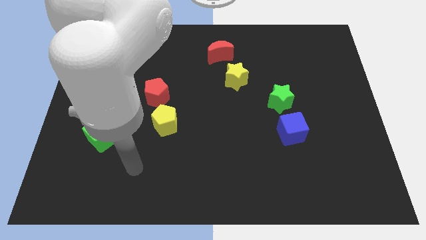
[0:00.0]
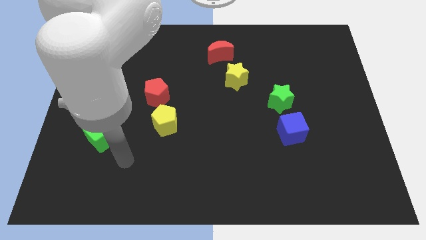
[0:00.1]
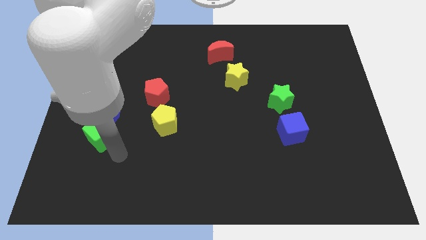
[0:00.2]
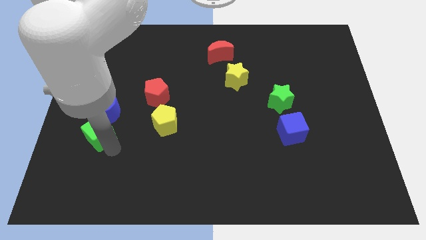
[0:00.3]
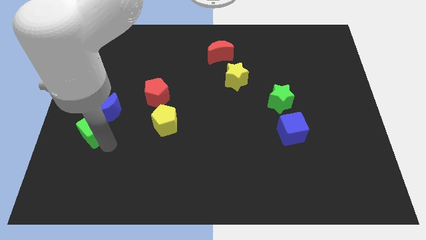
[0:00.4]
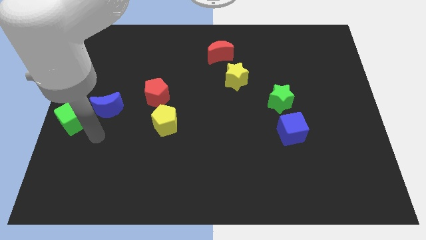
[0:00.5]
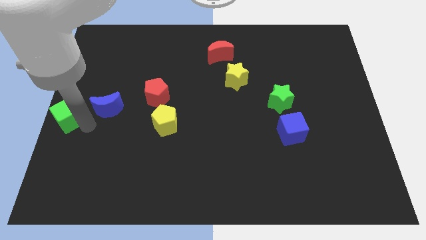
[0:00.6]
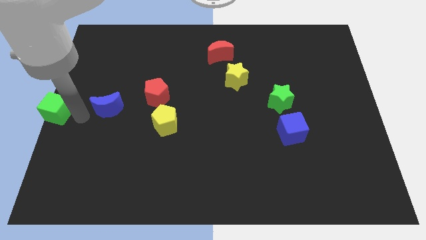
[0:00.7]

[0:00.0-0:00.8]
separate the blue moon from the green cube

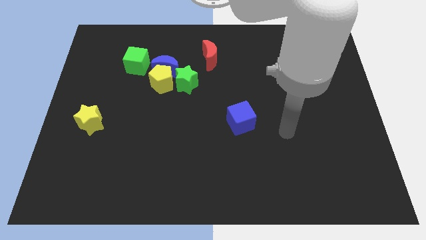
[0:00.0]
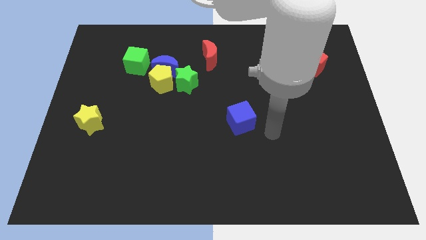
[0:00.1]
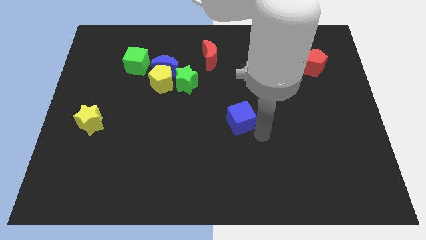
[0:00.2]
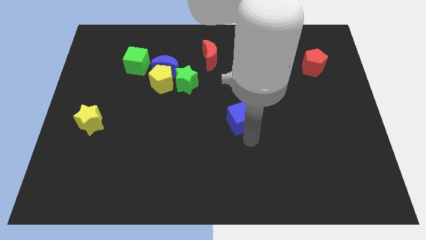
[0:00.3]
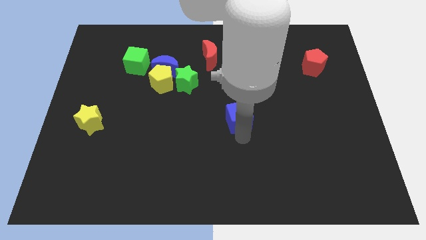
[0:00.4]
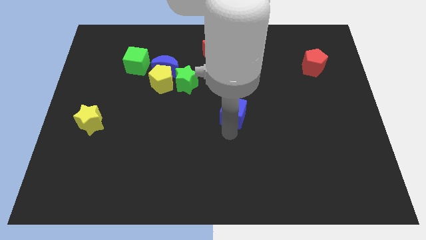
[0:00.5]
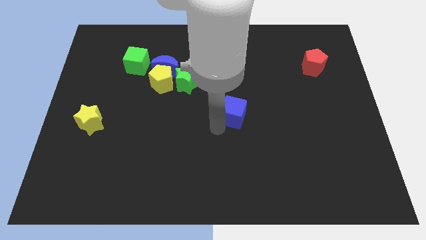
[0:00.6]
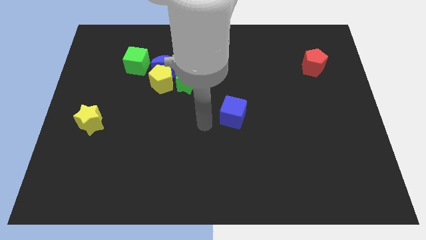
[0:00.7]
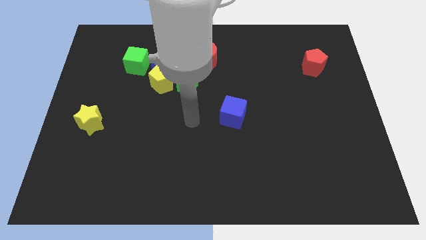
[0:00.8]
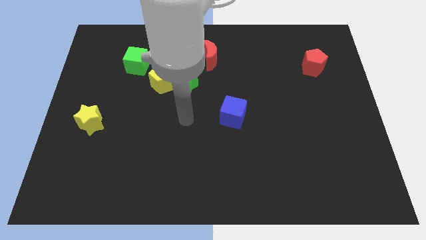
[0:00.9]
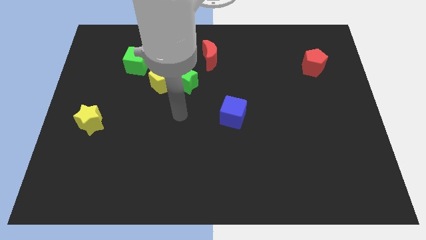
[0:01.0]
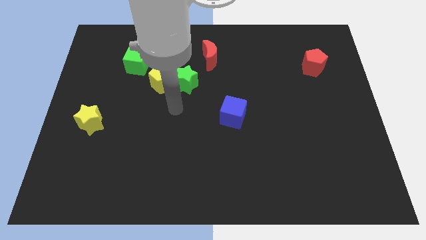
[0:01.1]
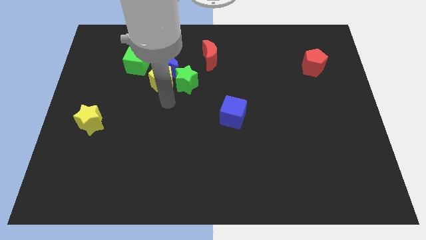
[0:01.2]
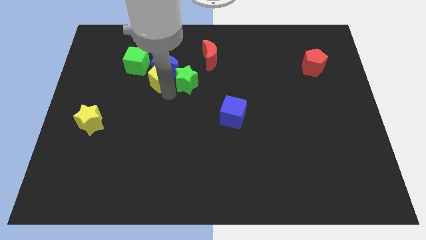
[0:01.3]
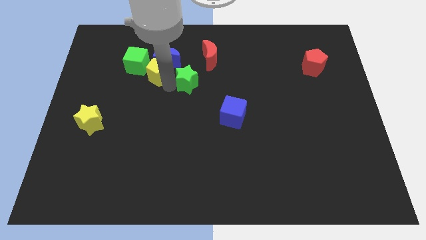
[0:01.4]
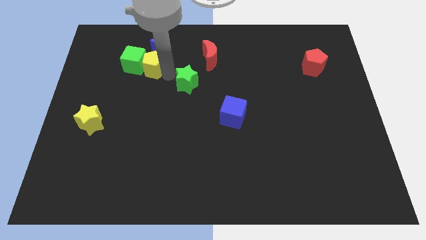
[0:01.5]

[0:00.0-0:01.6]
move the green star away from the yellow pentagon and blue moon

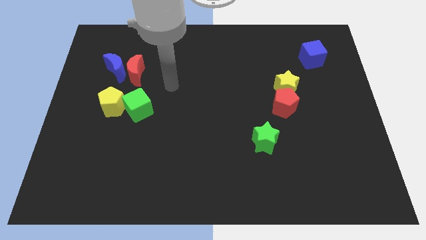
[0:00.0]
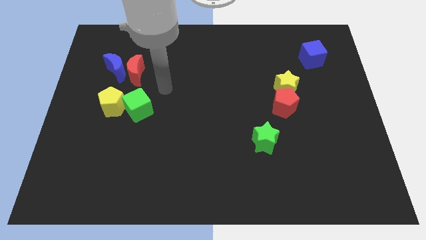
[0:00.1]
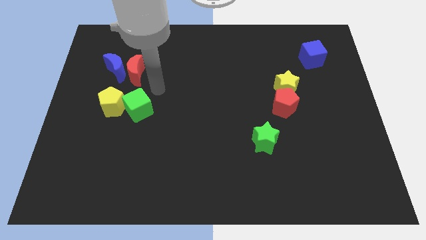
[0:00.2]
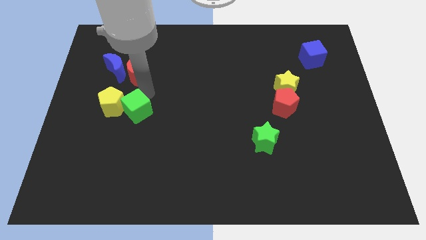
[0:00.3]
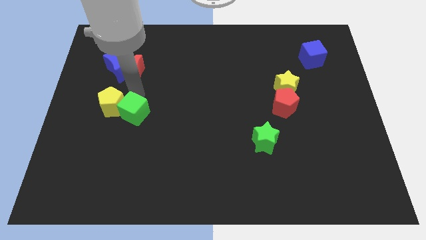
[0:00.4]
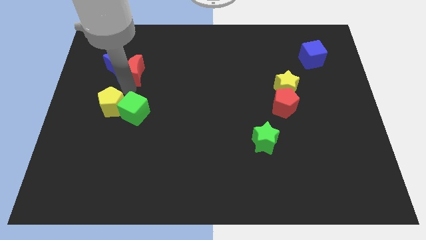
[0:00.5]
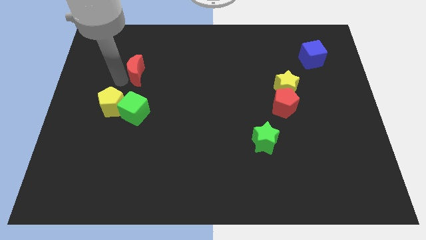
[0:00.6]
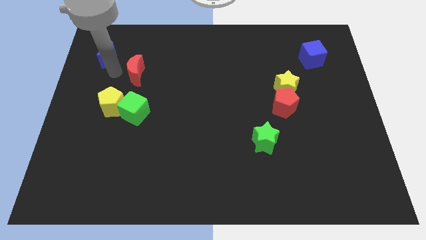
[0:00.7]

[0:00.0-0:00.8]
separate the red moon from the blue moon

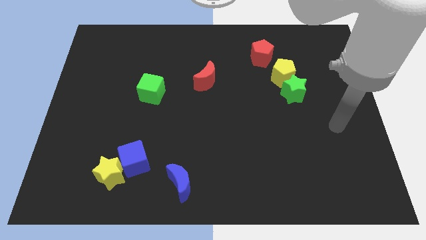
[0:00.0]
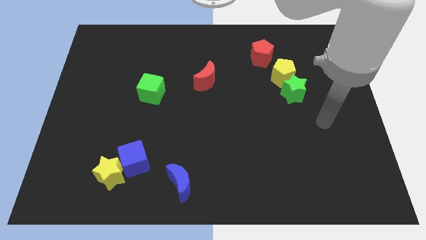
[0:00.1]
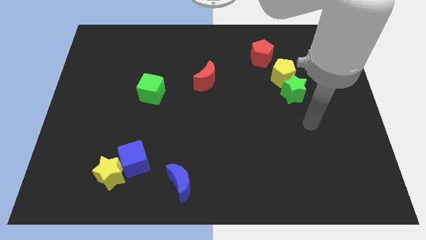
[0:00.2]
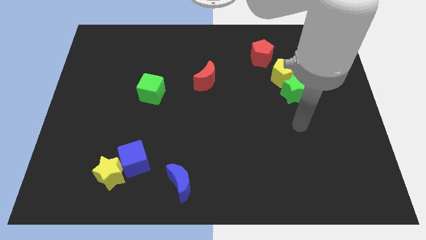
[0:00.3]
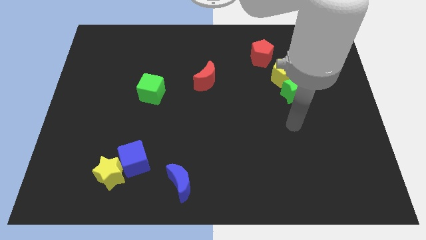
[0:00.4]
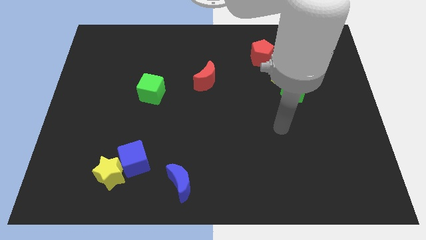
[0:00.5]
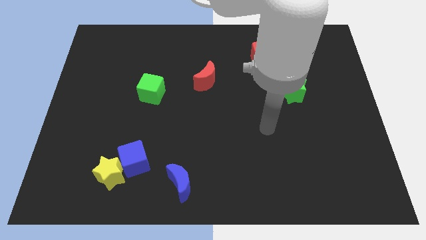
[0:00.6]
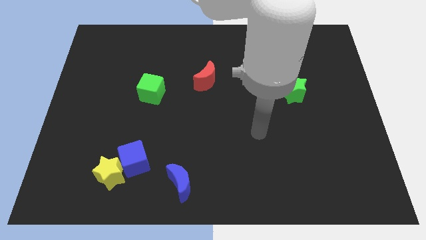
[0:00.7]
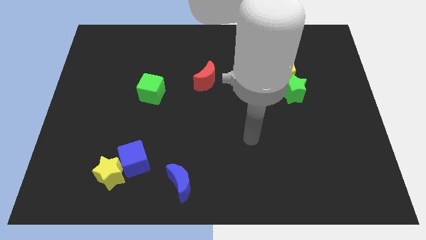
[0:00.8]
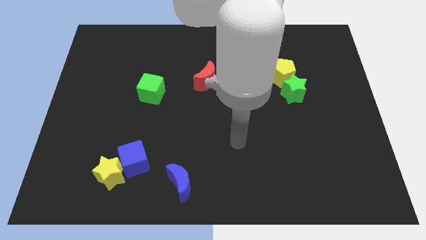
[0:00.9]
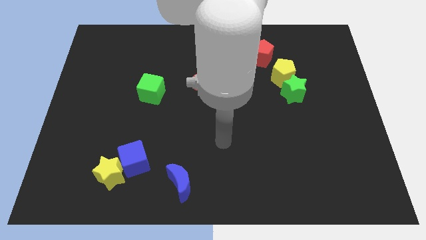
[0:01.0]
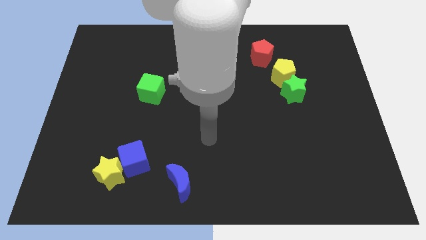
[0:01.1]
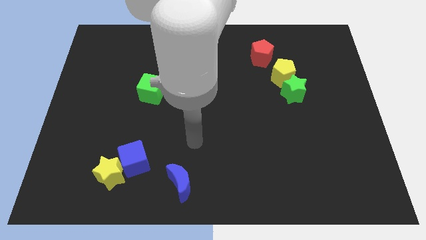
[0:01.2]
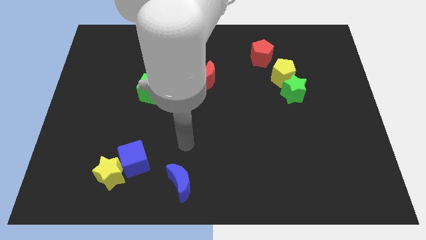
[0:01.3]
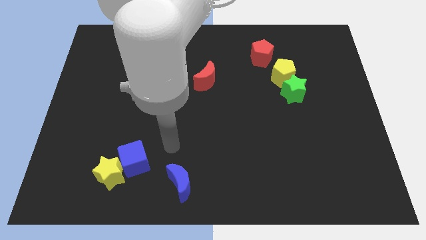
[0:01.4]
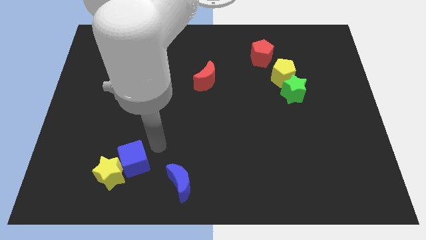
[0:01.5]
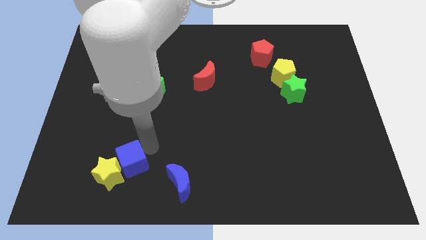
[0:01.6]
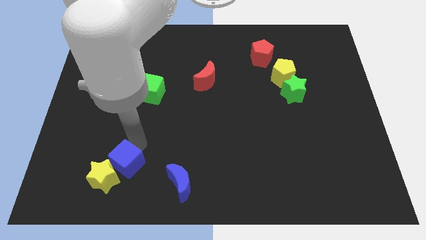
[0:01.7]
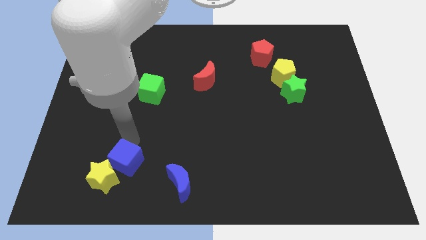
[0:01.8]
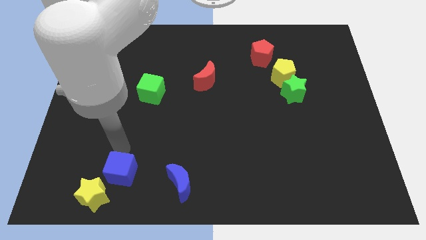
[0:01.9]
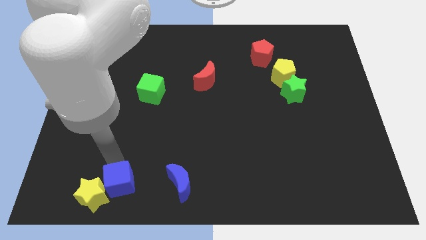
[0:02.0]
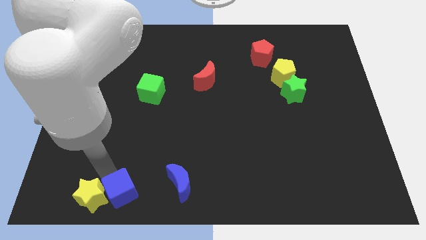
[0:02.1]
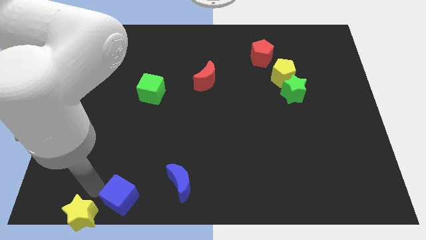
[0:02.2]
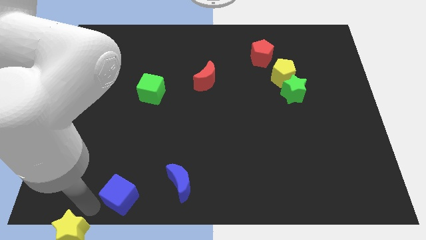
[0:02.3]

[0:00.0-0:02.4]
separate the blue cube from the yellow star

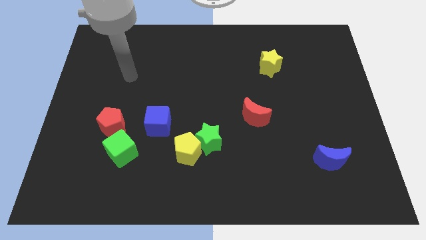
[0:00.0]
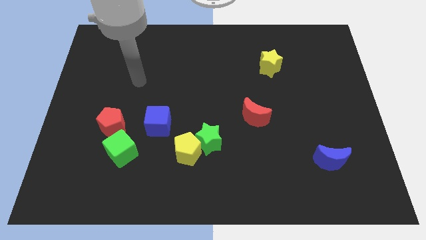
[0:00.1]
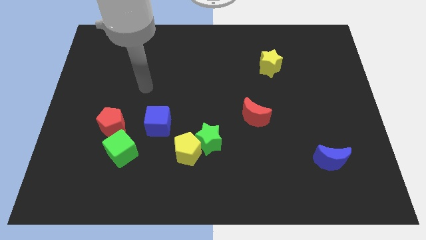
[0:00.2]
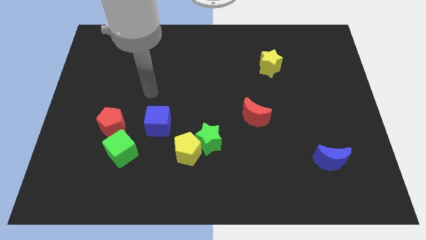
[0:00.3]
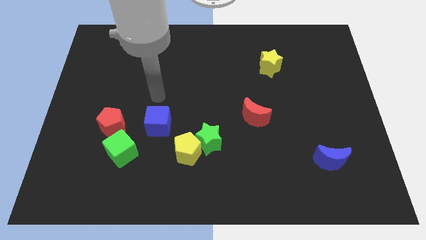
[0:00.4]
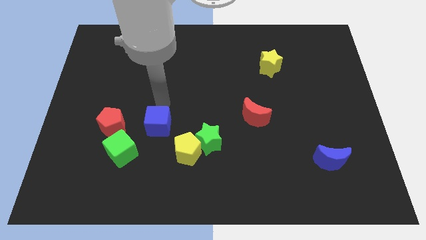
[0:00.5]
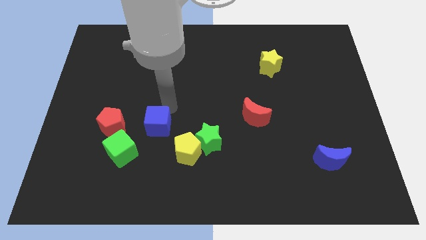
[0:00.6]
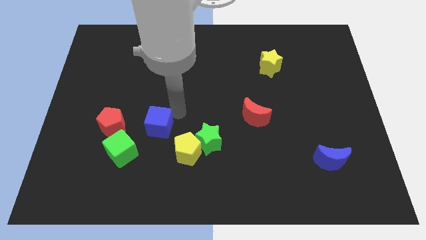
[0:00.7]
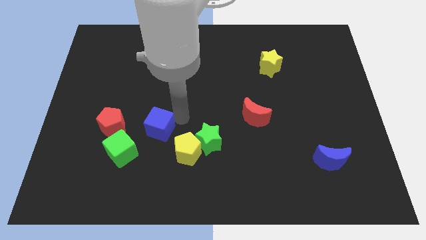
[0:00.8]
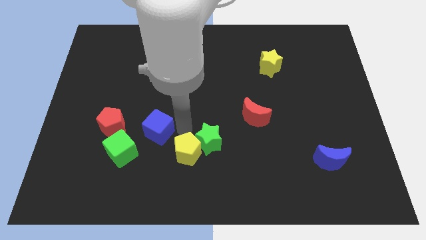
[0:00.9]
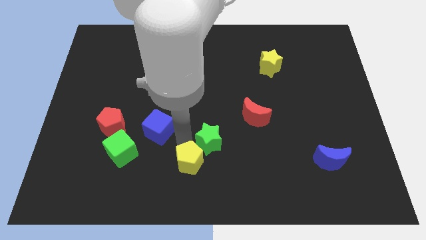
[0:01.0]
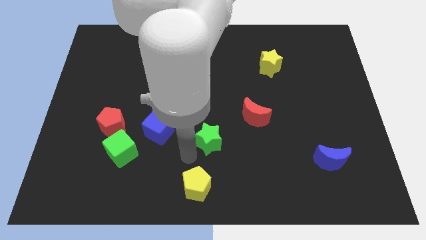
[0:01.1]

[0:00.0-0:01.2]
pull the green star apart from the yellow pentagon

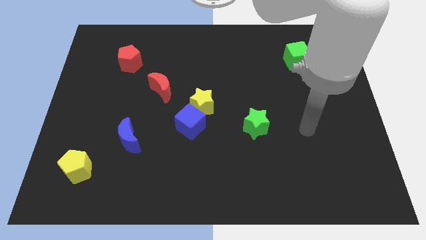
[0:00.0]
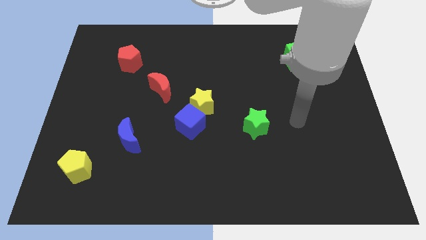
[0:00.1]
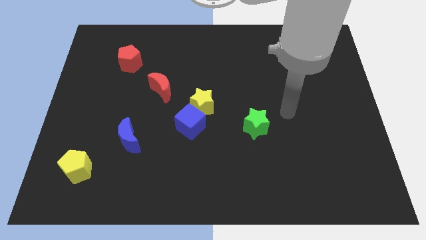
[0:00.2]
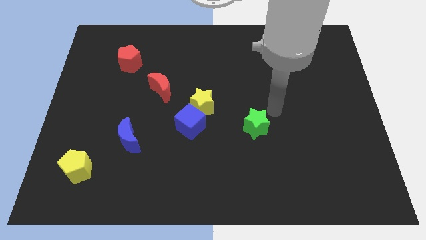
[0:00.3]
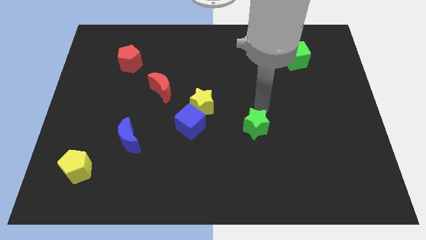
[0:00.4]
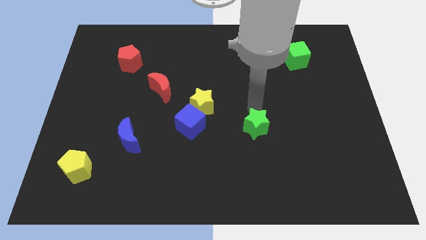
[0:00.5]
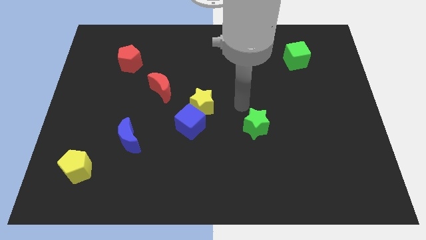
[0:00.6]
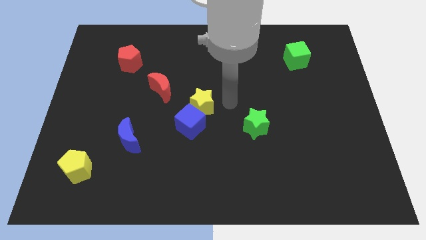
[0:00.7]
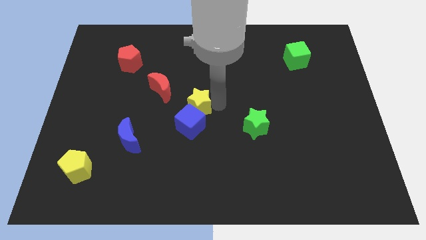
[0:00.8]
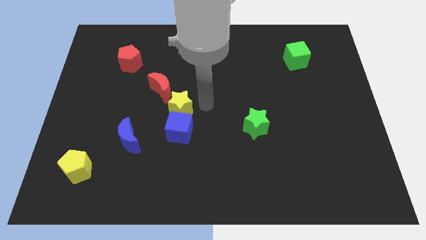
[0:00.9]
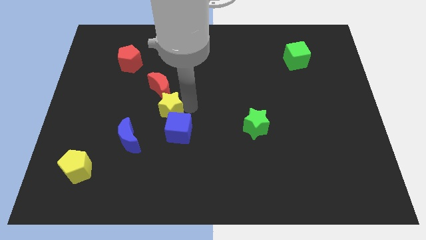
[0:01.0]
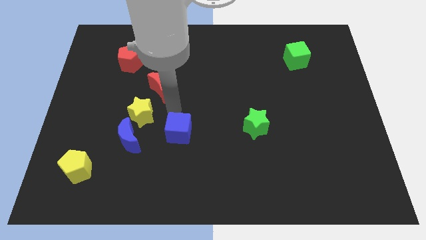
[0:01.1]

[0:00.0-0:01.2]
pull the blue cube apart from the yellow star

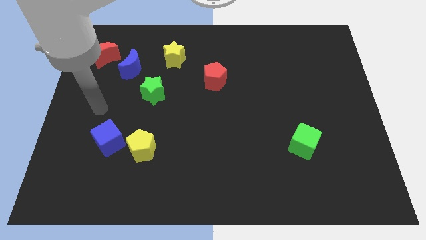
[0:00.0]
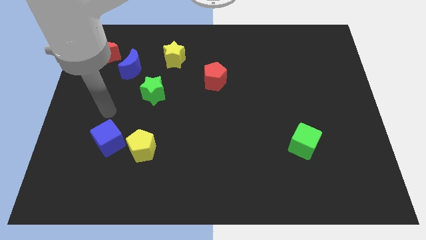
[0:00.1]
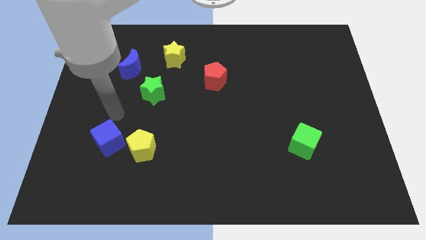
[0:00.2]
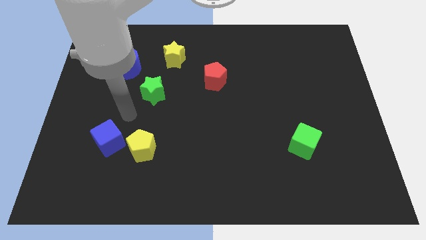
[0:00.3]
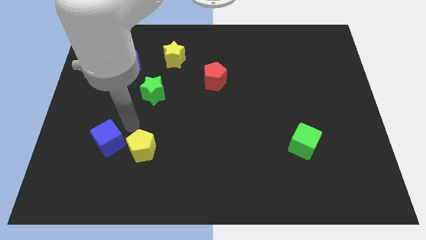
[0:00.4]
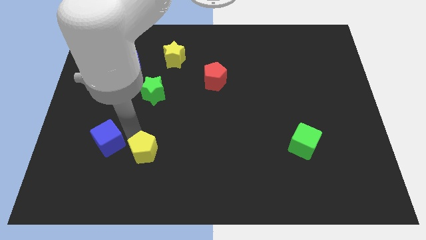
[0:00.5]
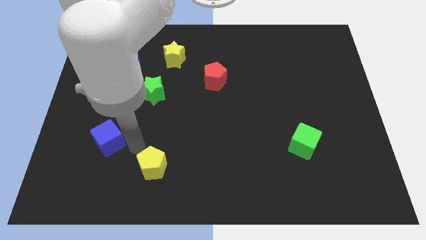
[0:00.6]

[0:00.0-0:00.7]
pull the blue cube apart from the yellow pentagon

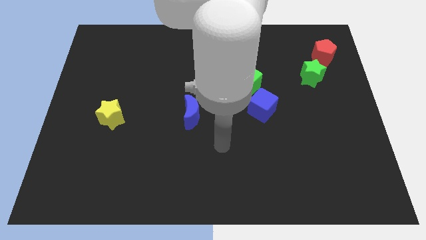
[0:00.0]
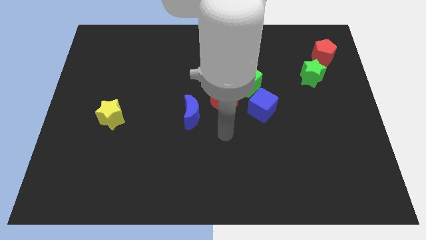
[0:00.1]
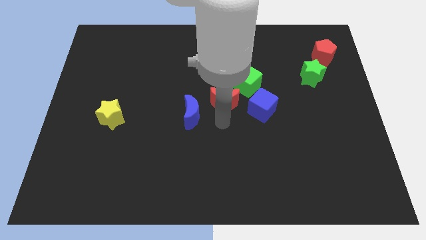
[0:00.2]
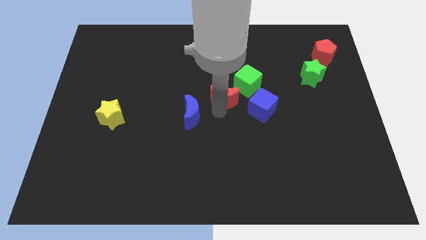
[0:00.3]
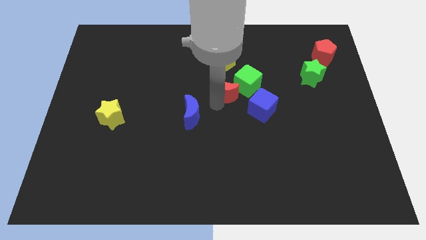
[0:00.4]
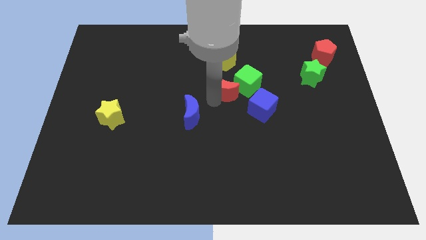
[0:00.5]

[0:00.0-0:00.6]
separate the blue moon from the red moon
